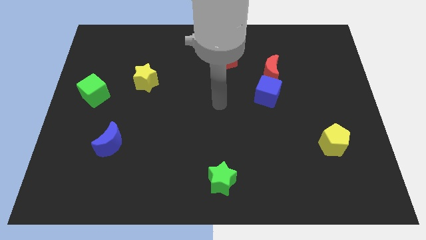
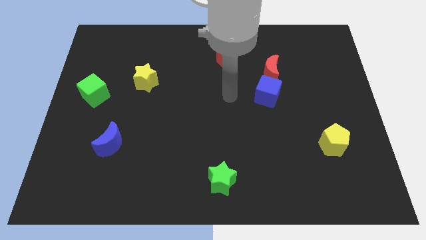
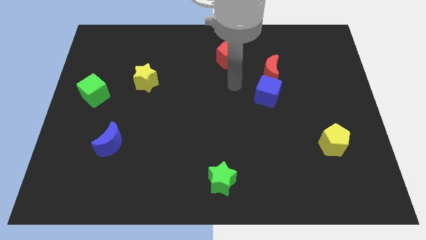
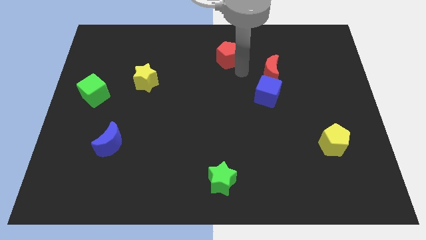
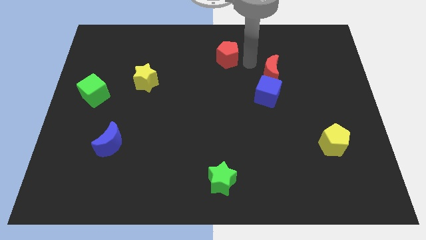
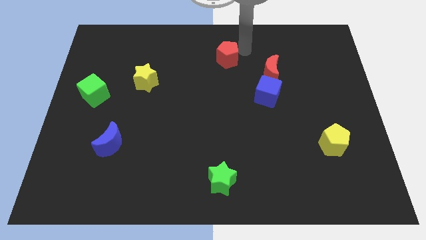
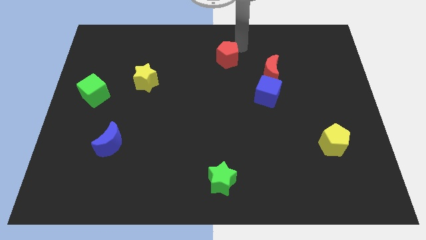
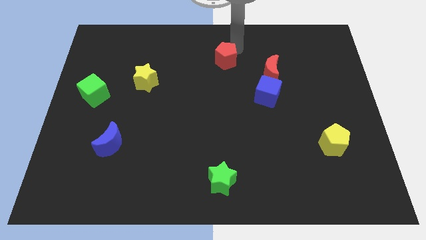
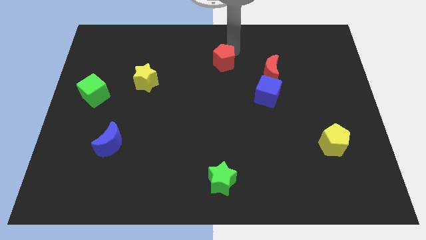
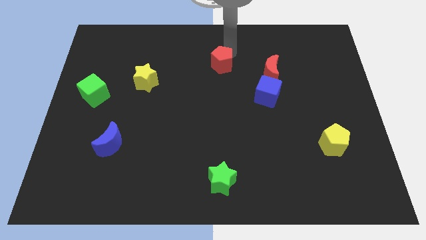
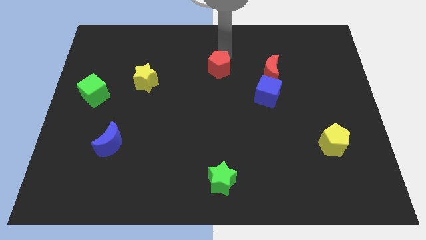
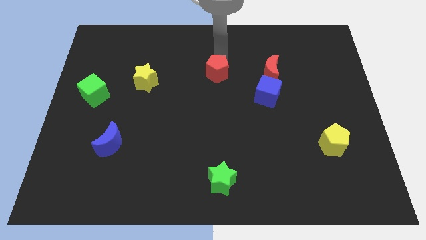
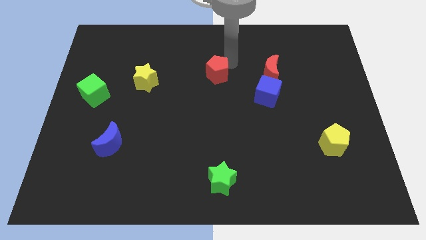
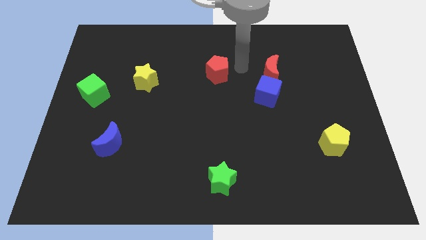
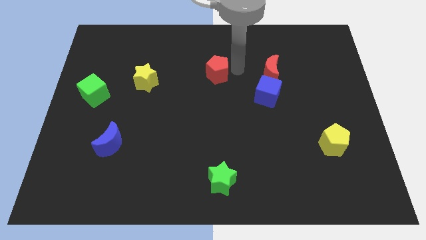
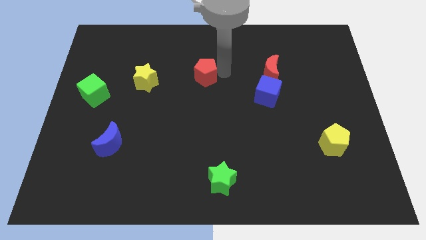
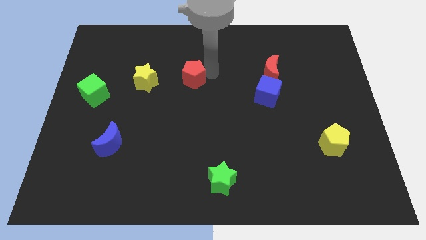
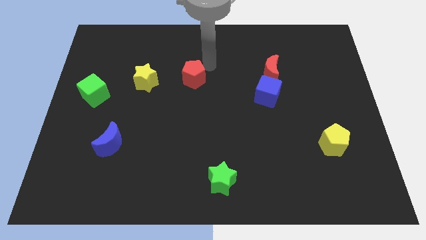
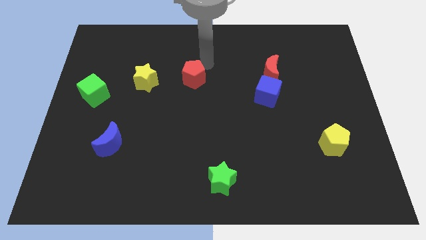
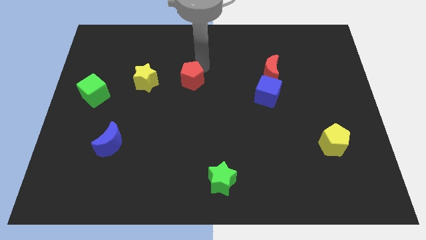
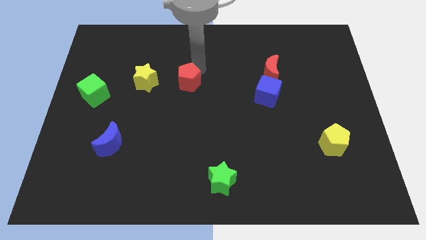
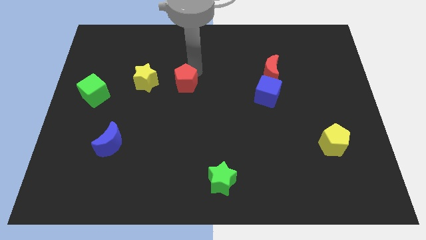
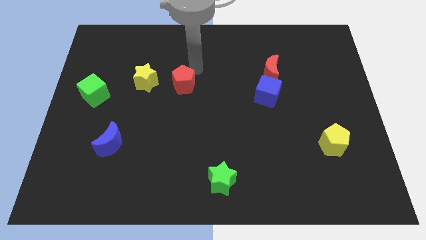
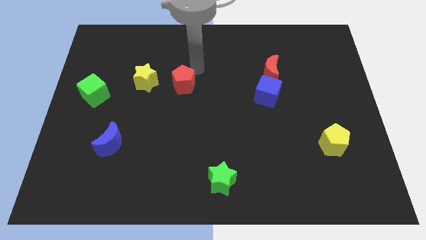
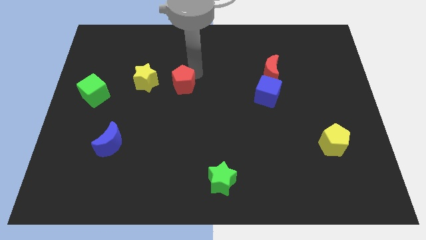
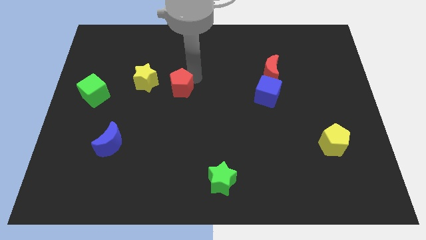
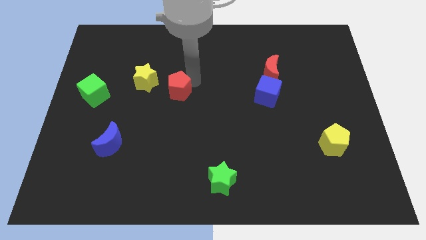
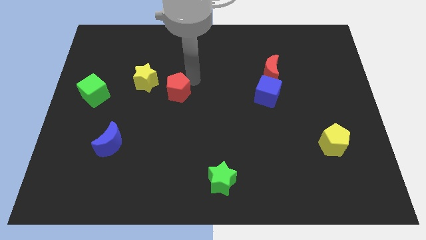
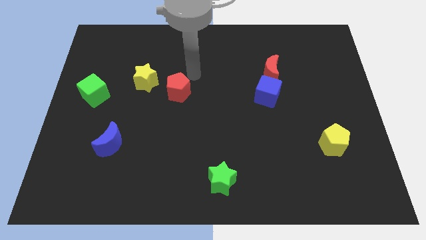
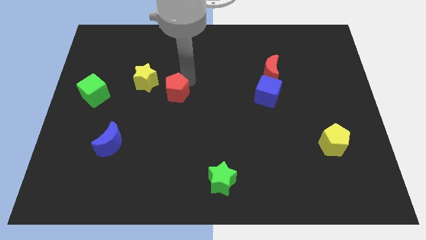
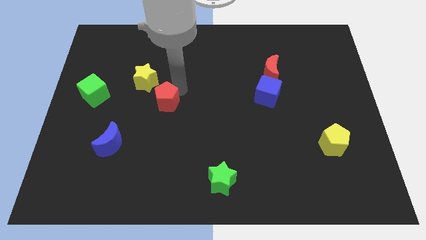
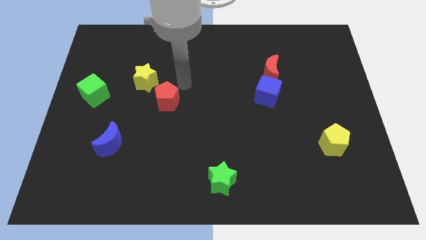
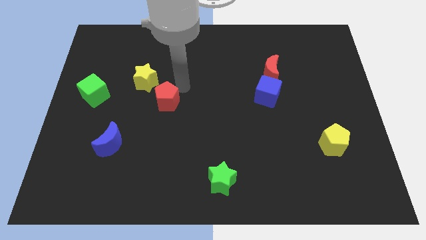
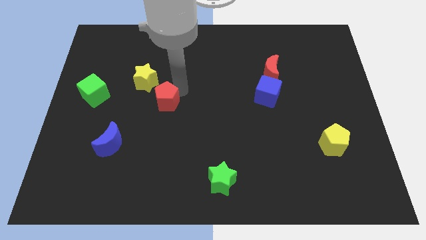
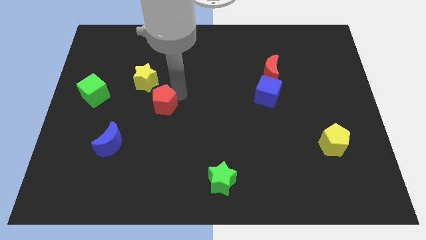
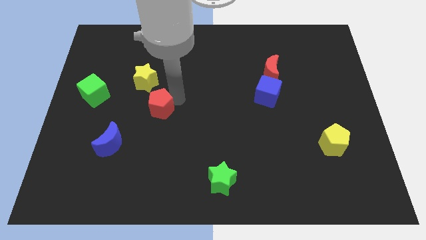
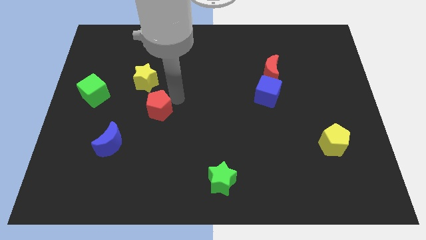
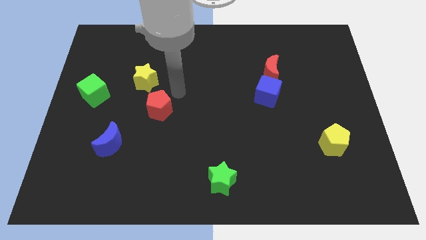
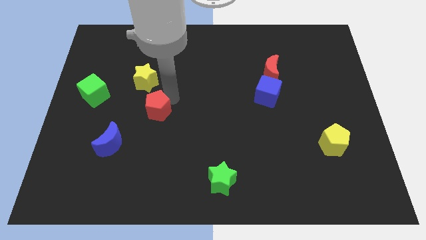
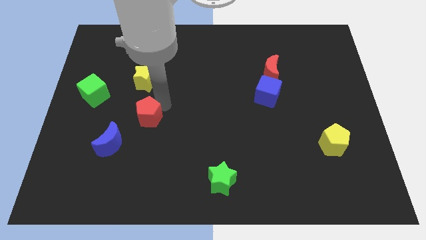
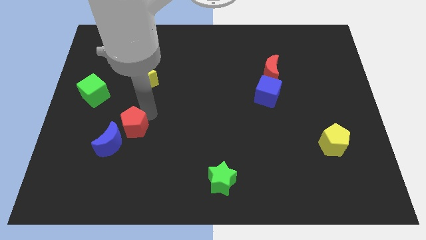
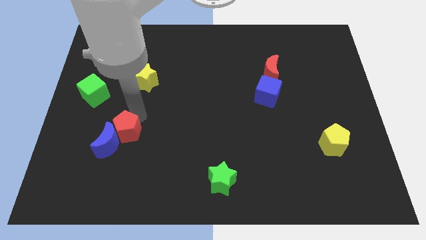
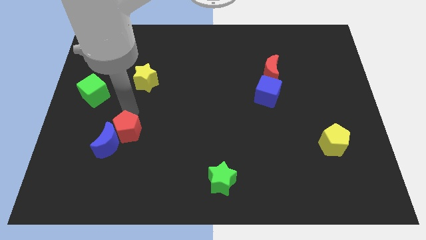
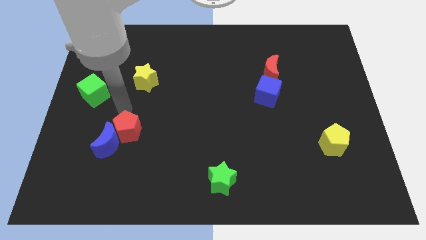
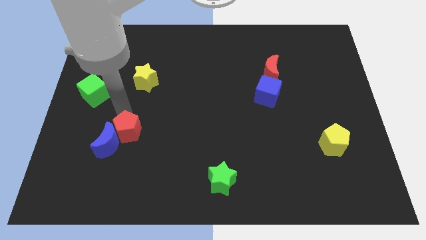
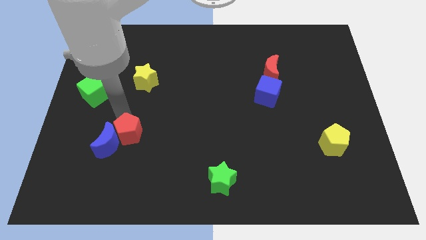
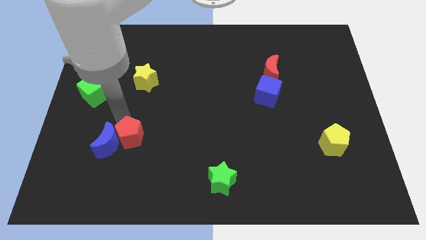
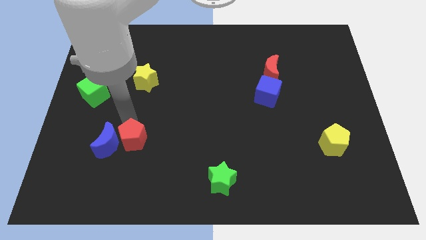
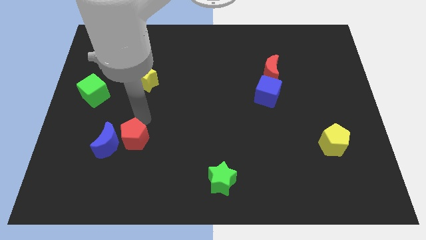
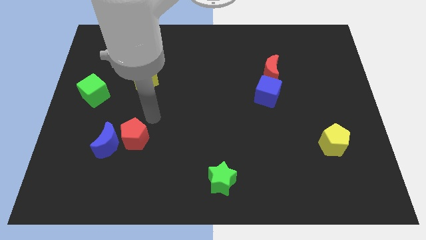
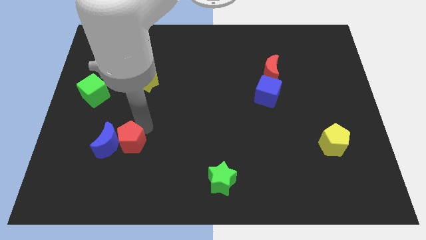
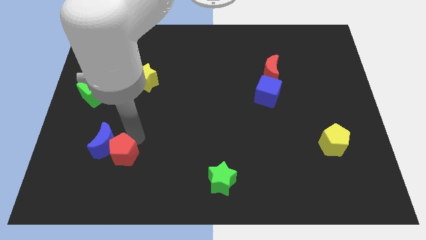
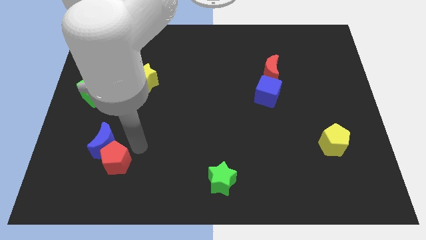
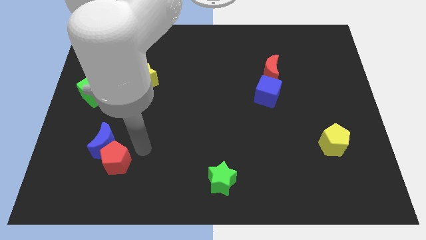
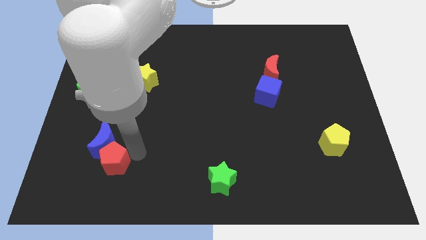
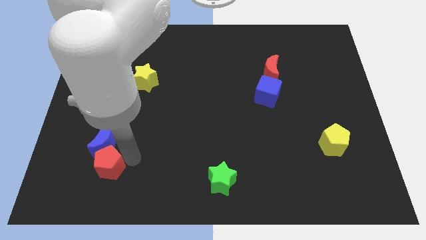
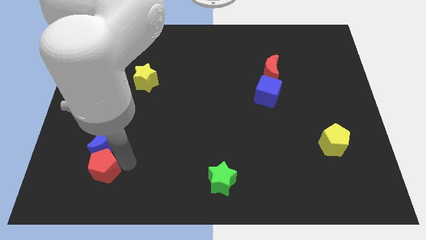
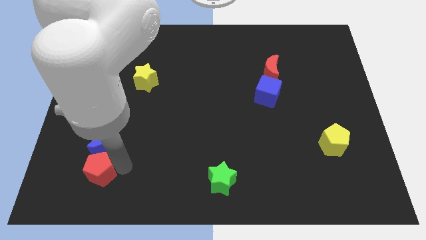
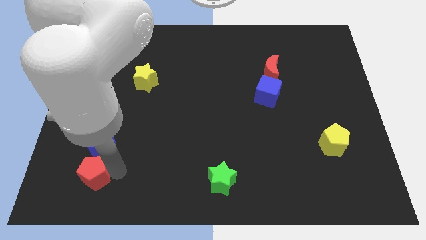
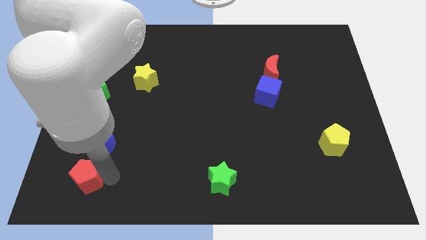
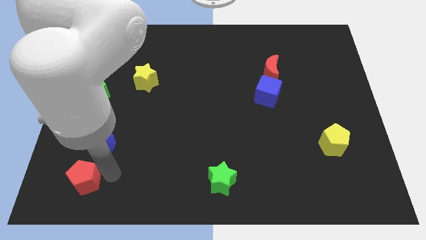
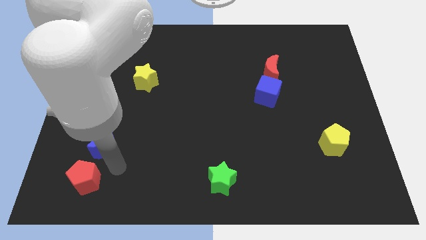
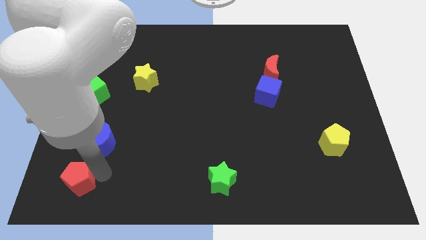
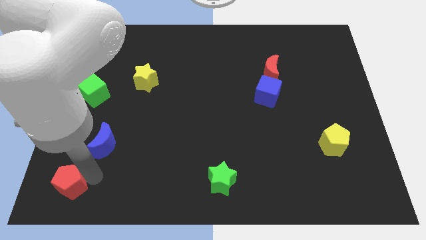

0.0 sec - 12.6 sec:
push the red pentagon to the lower left corner

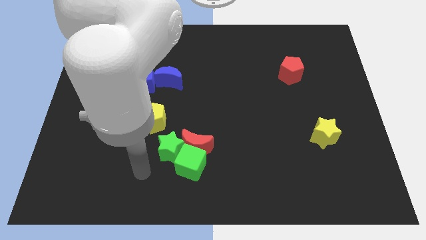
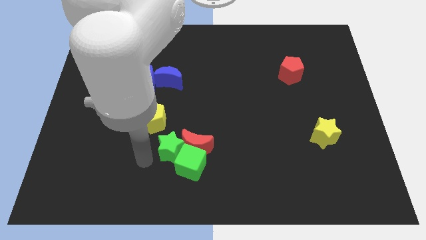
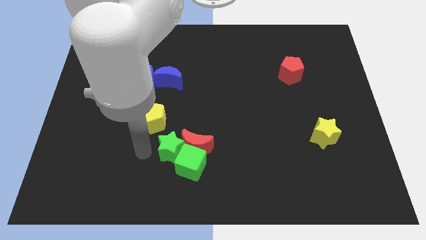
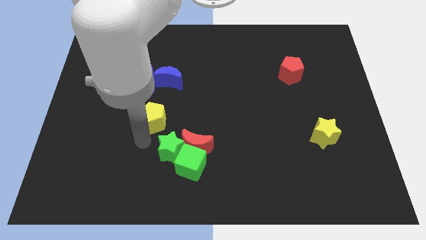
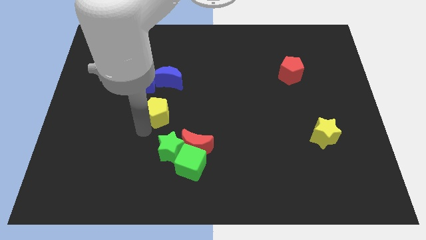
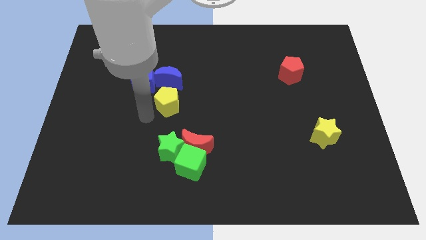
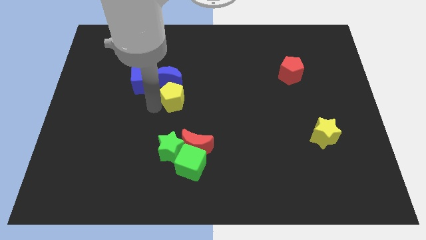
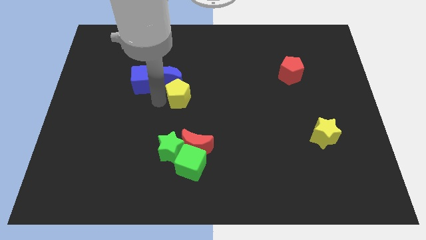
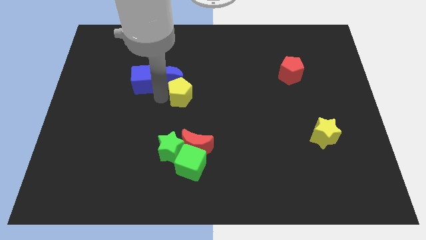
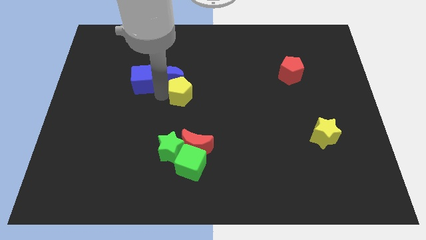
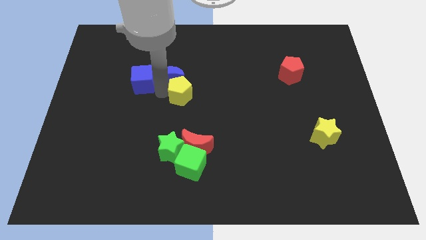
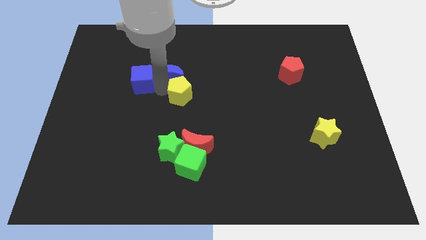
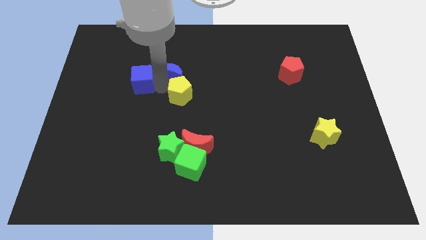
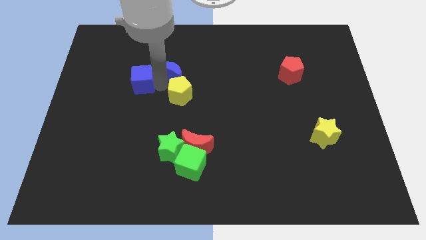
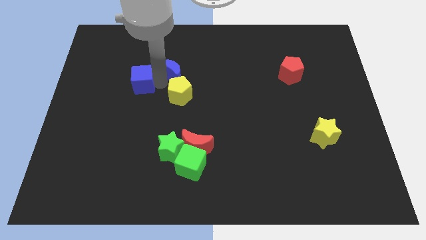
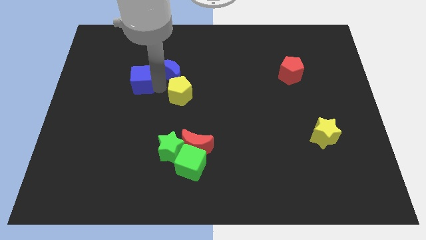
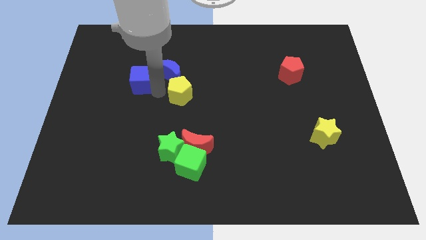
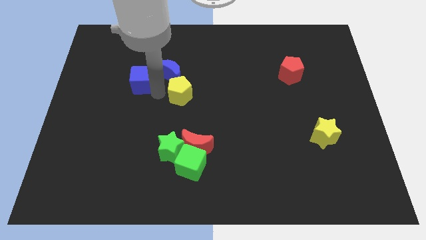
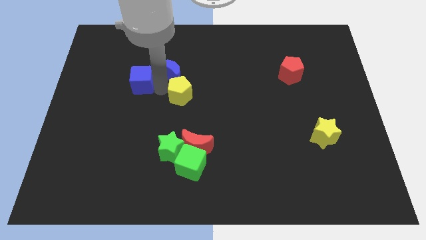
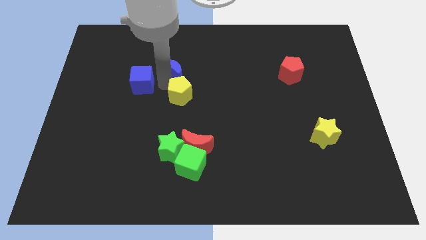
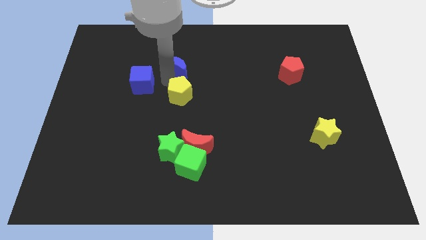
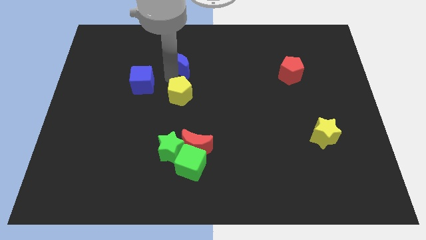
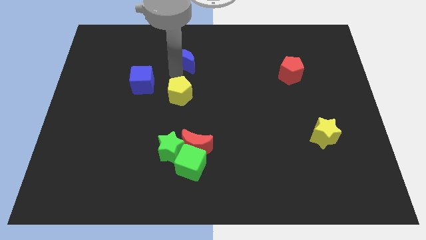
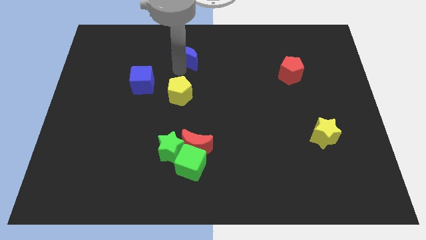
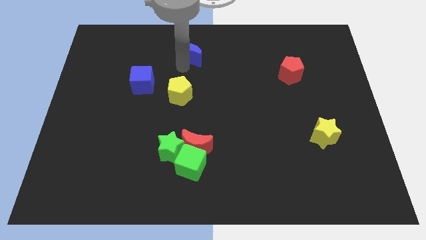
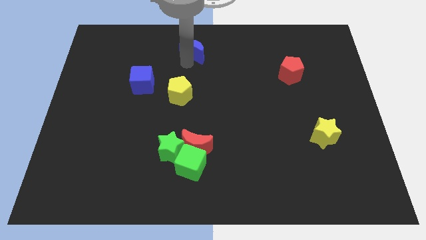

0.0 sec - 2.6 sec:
push the blue moon to the top side
